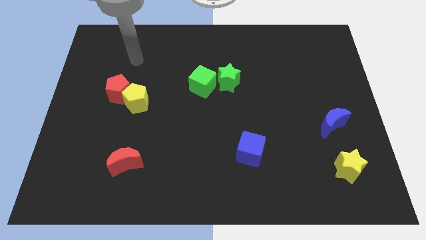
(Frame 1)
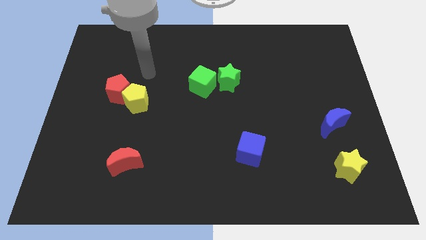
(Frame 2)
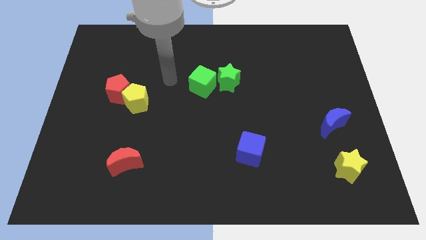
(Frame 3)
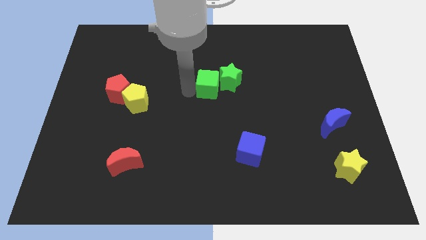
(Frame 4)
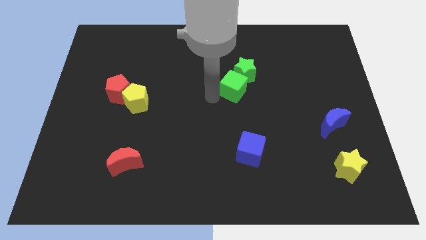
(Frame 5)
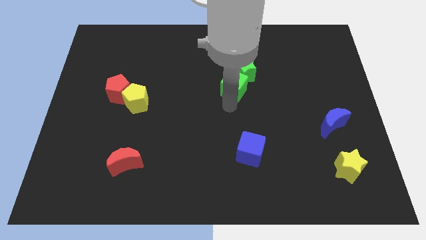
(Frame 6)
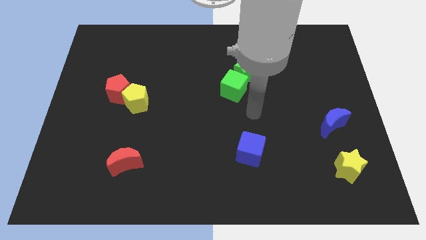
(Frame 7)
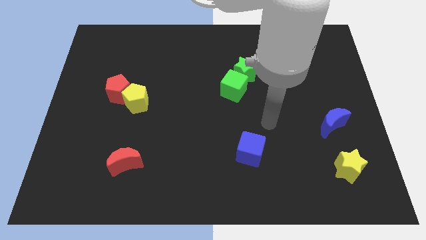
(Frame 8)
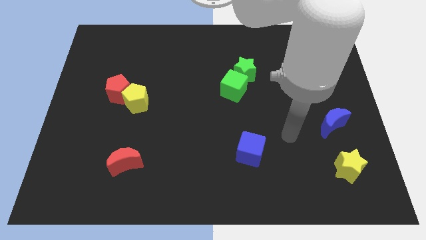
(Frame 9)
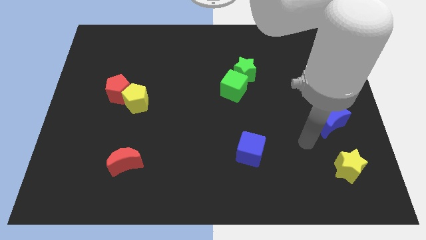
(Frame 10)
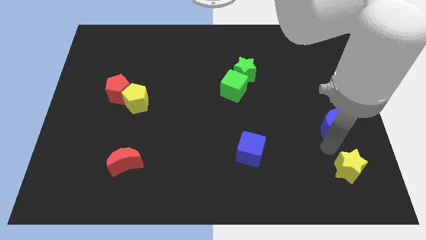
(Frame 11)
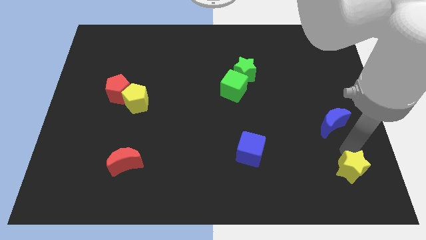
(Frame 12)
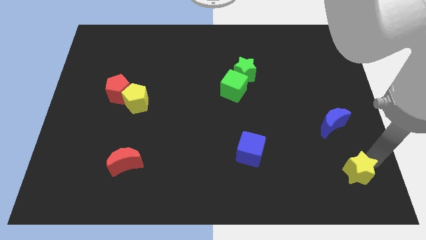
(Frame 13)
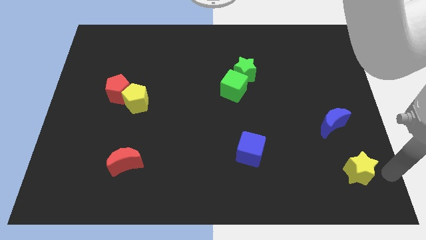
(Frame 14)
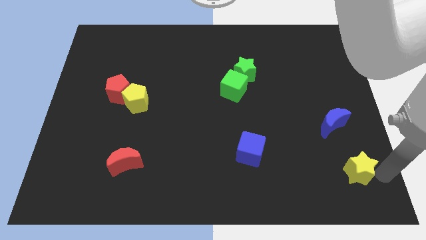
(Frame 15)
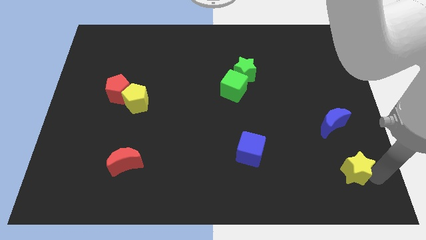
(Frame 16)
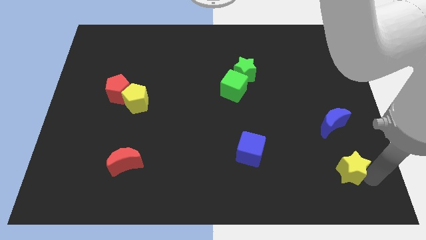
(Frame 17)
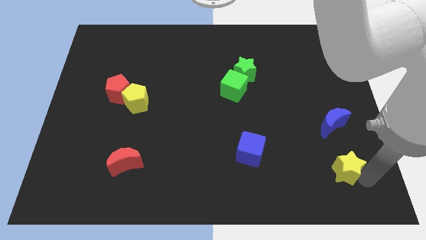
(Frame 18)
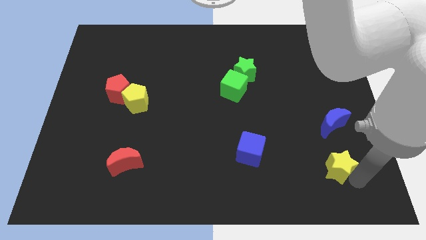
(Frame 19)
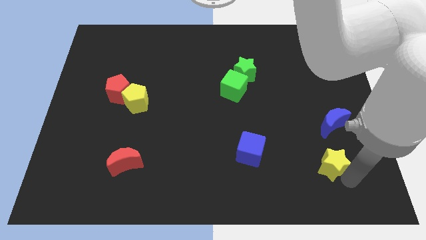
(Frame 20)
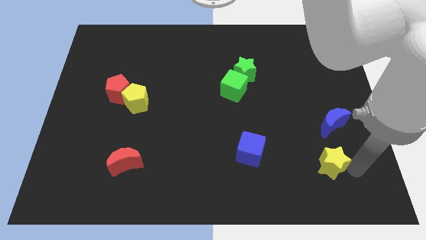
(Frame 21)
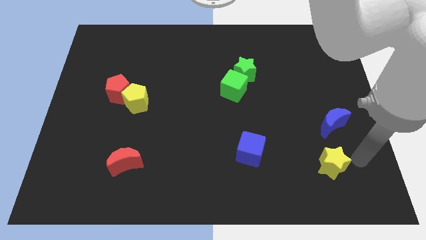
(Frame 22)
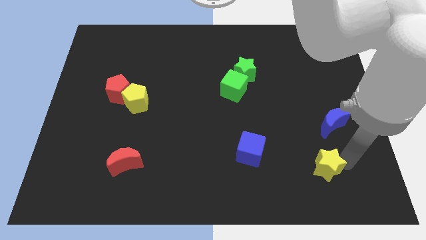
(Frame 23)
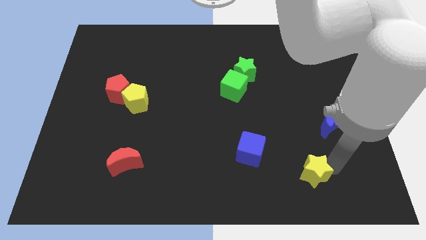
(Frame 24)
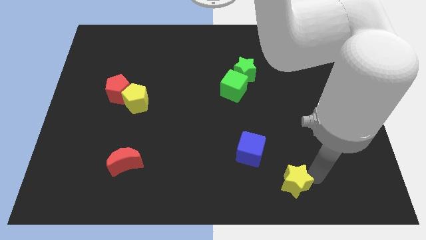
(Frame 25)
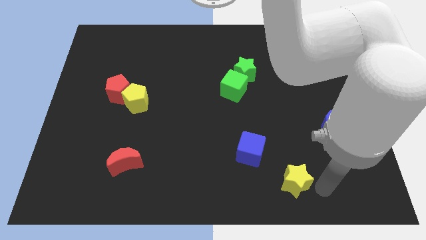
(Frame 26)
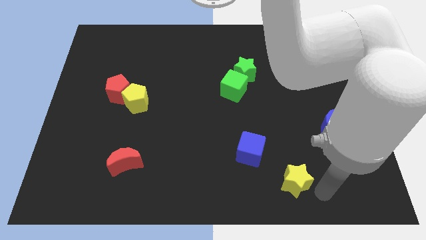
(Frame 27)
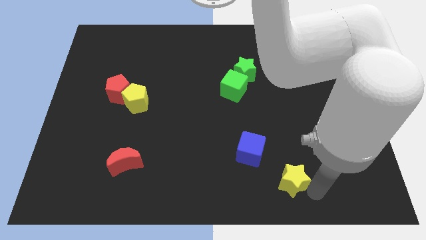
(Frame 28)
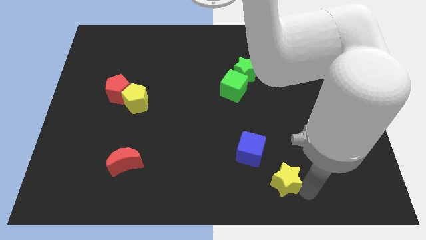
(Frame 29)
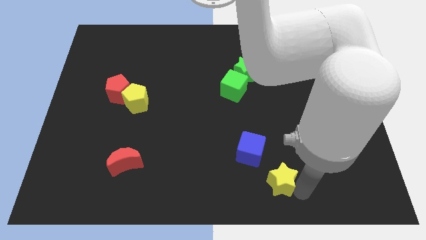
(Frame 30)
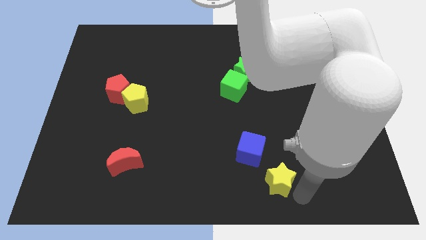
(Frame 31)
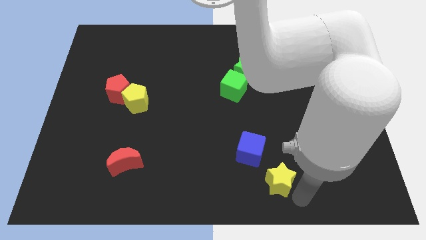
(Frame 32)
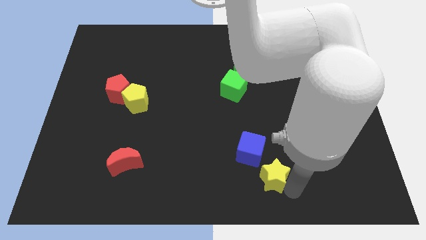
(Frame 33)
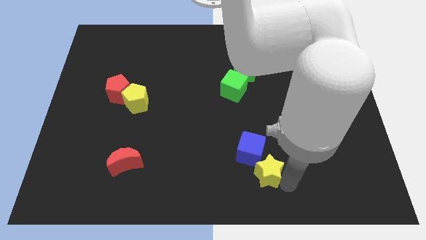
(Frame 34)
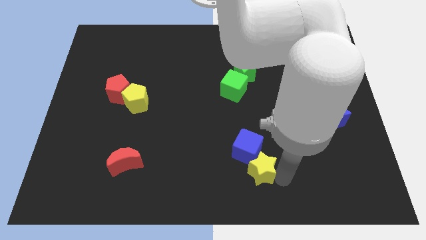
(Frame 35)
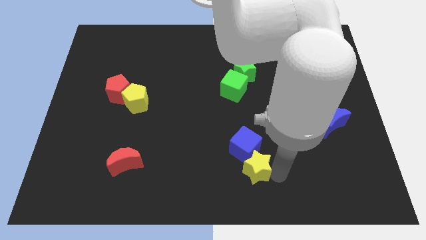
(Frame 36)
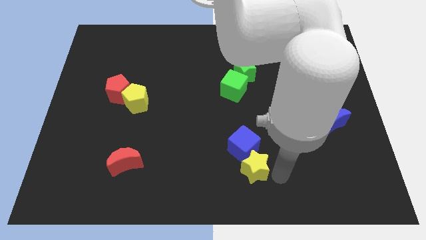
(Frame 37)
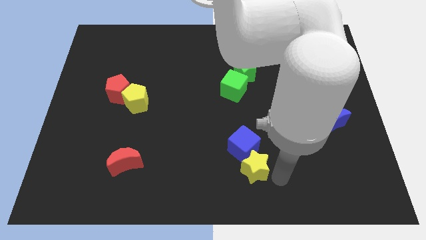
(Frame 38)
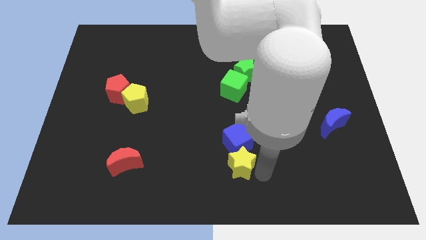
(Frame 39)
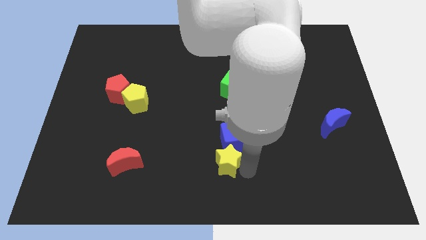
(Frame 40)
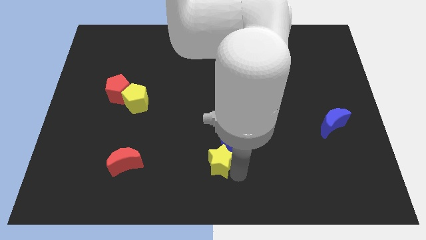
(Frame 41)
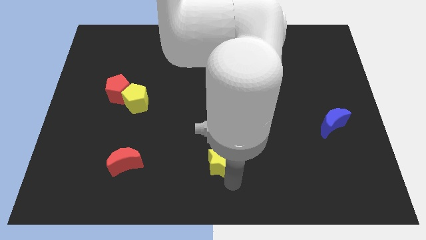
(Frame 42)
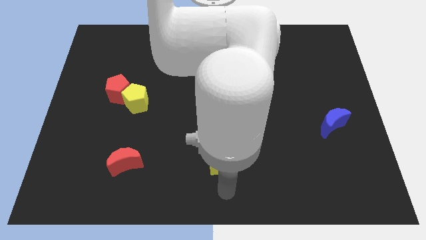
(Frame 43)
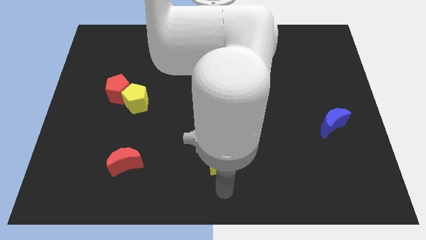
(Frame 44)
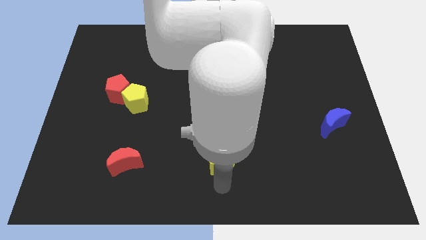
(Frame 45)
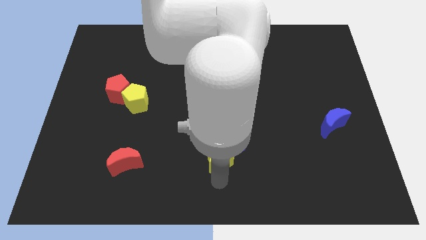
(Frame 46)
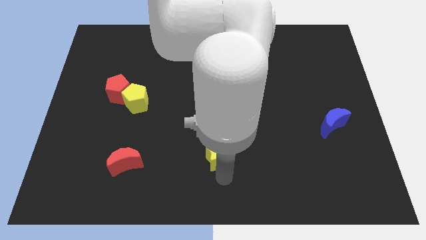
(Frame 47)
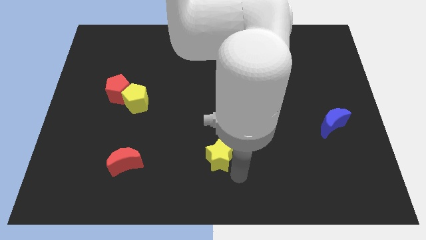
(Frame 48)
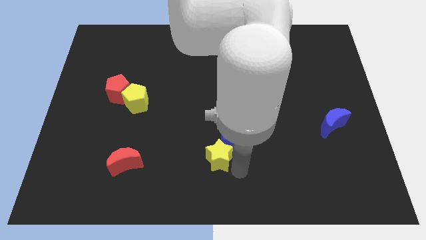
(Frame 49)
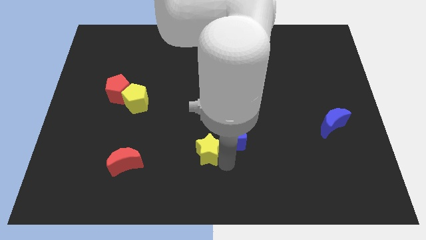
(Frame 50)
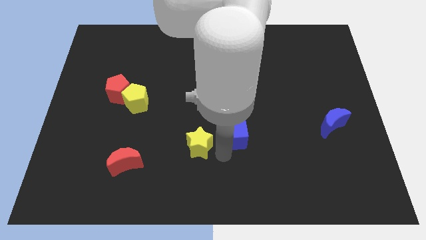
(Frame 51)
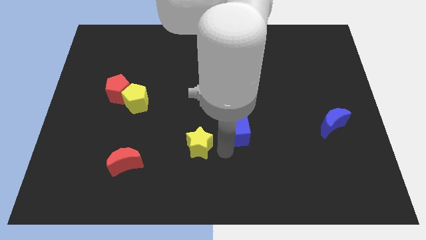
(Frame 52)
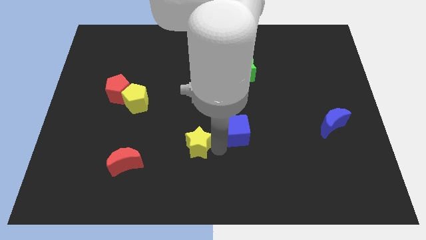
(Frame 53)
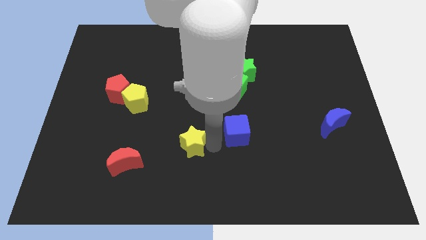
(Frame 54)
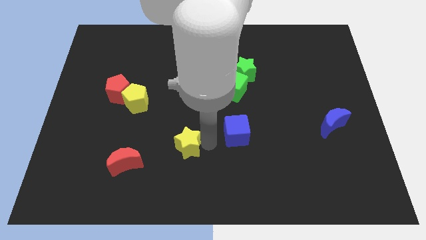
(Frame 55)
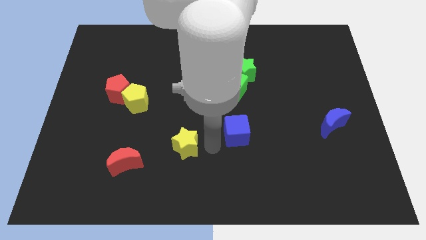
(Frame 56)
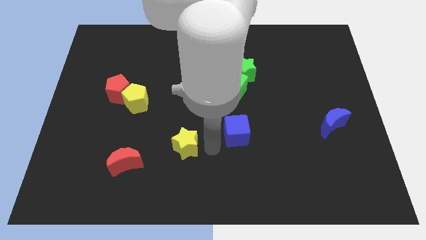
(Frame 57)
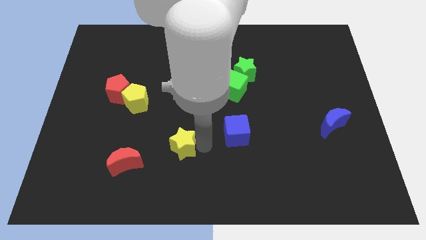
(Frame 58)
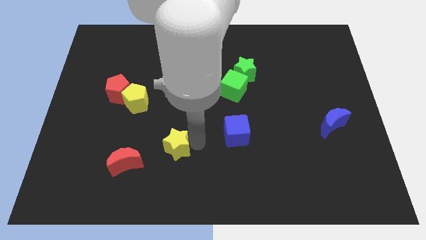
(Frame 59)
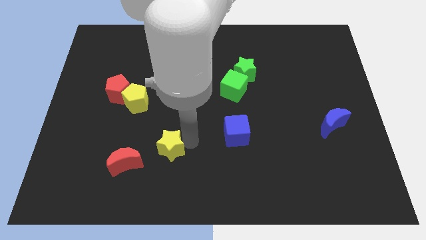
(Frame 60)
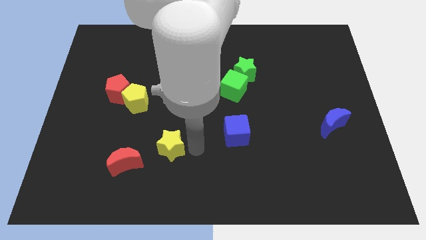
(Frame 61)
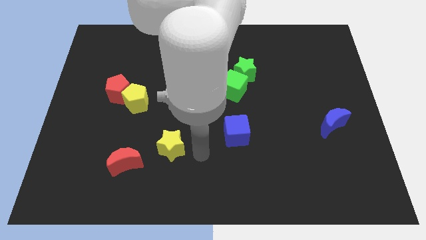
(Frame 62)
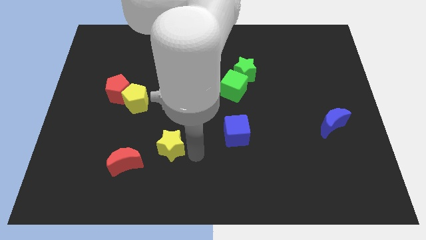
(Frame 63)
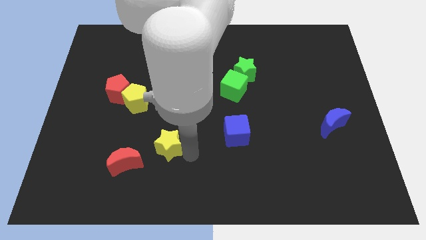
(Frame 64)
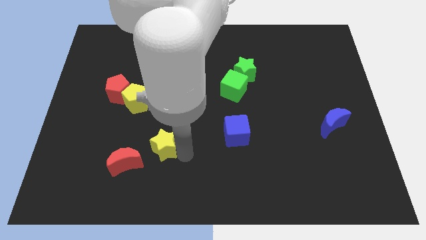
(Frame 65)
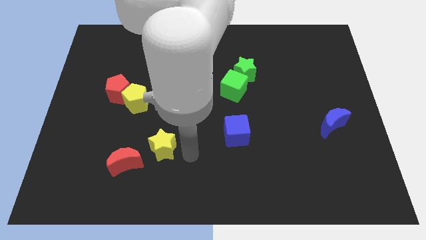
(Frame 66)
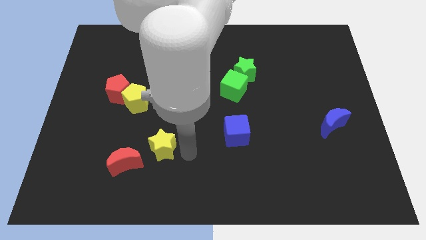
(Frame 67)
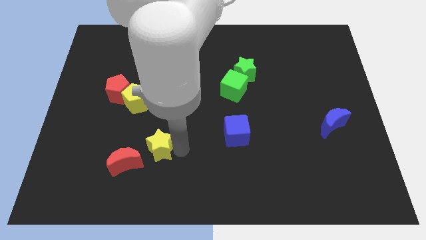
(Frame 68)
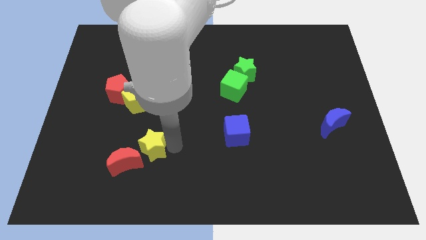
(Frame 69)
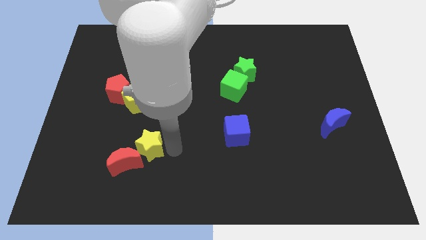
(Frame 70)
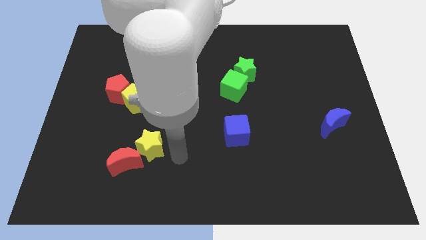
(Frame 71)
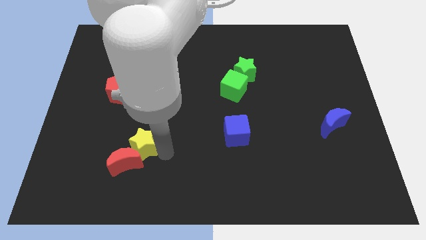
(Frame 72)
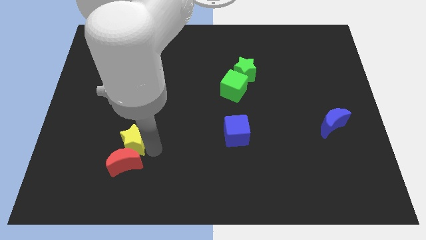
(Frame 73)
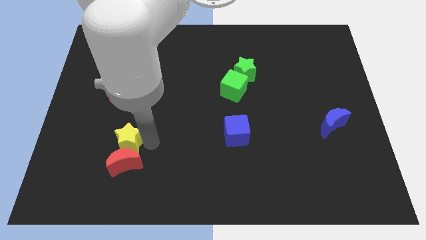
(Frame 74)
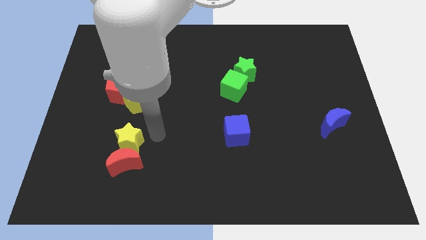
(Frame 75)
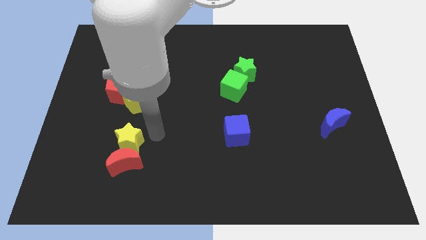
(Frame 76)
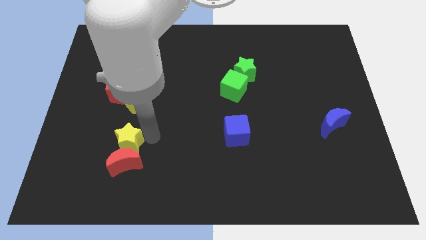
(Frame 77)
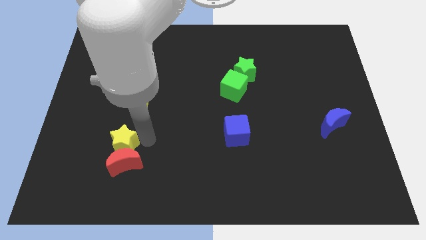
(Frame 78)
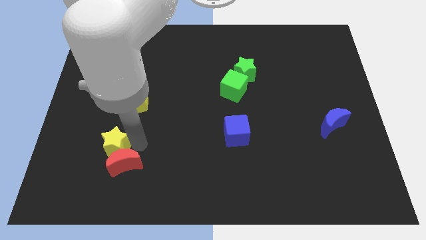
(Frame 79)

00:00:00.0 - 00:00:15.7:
move the yellow star to the left side of the red moon
